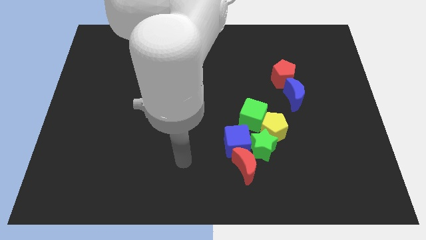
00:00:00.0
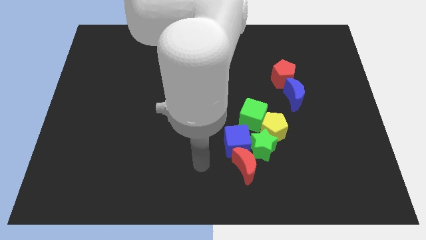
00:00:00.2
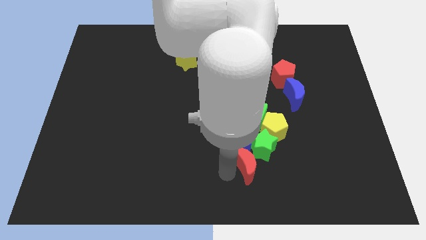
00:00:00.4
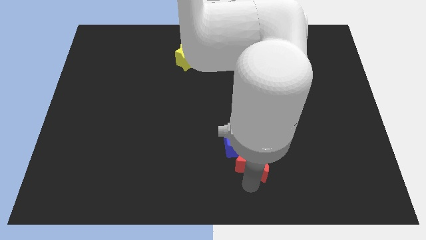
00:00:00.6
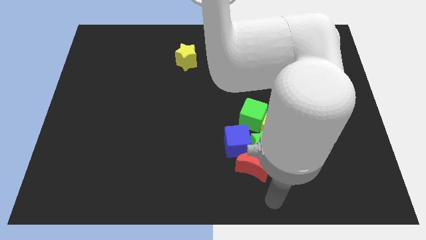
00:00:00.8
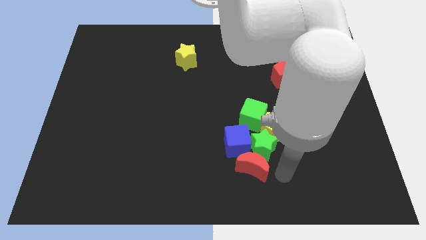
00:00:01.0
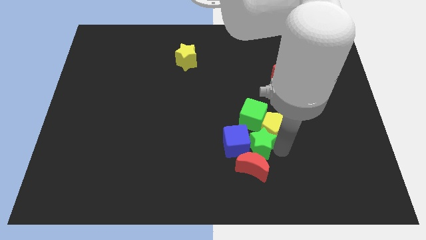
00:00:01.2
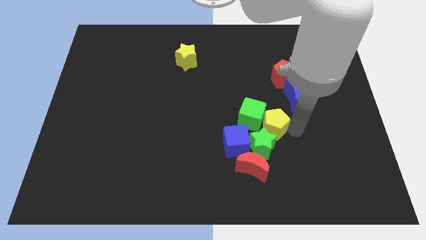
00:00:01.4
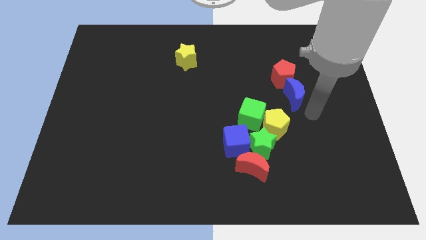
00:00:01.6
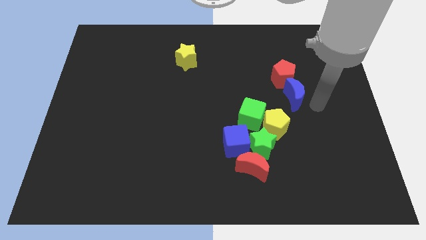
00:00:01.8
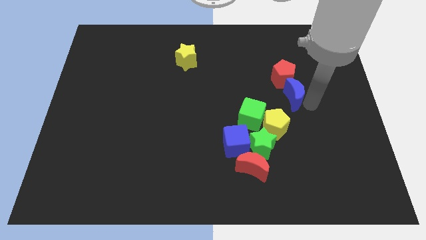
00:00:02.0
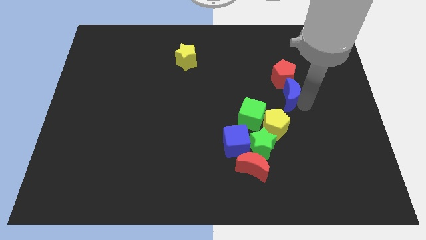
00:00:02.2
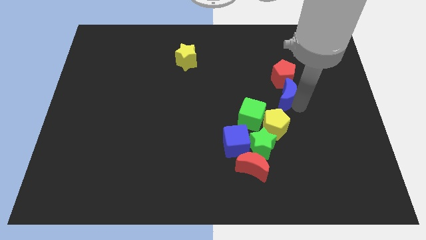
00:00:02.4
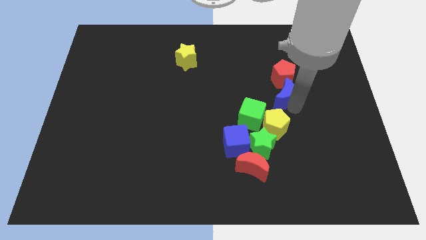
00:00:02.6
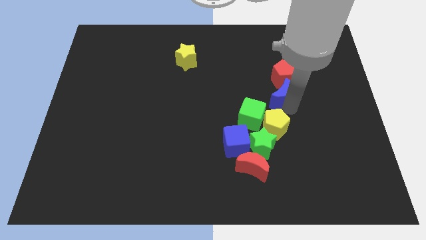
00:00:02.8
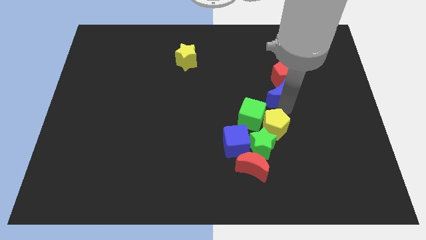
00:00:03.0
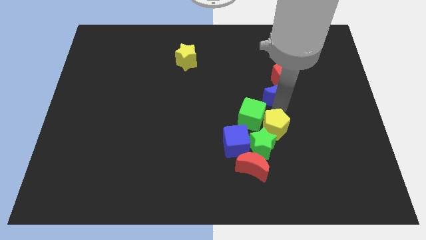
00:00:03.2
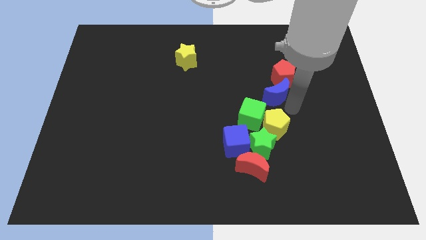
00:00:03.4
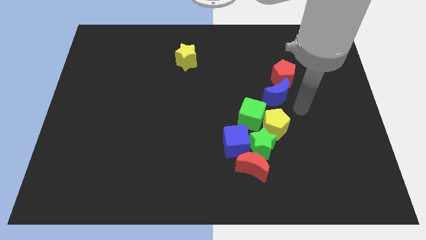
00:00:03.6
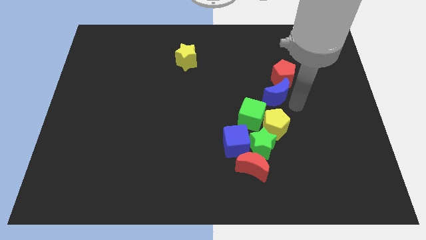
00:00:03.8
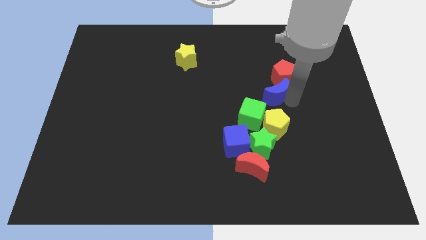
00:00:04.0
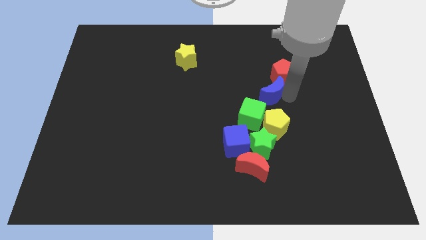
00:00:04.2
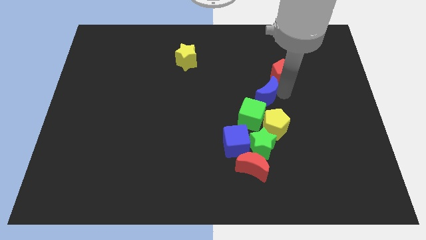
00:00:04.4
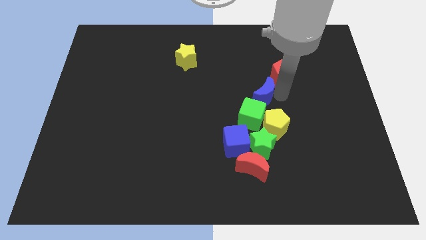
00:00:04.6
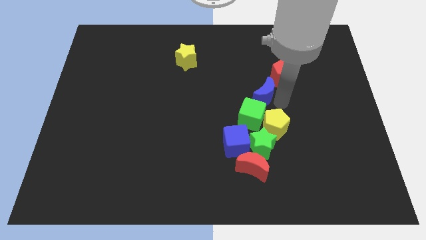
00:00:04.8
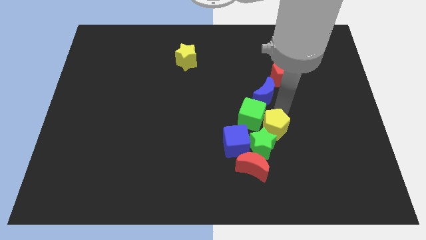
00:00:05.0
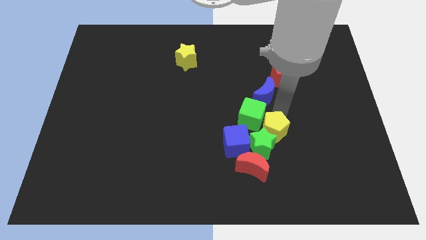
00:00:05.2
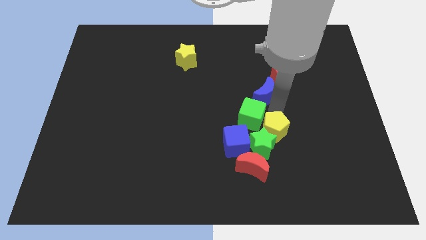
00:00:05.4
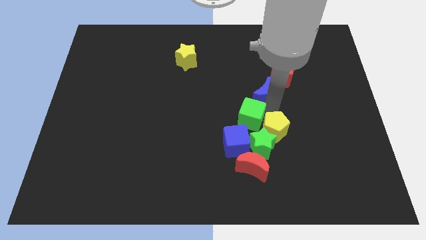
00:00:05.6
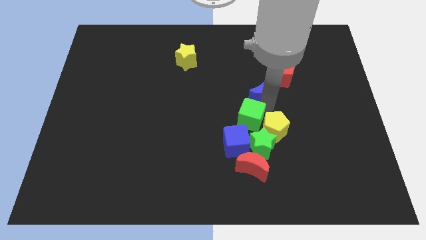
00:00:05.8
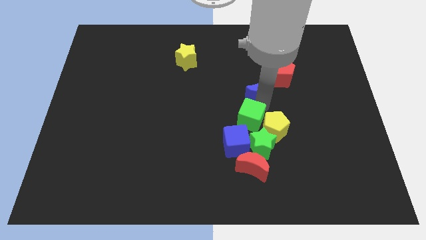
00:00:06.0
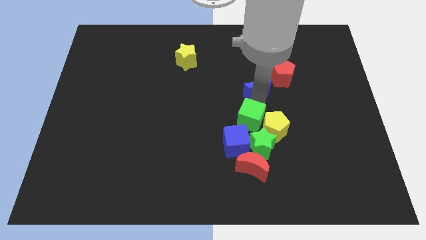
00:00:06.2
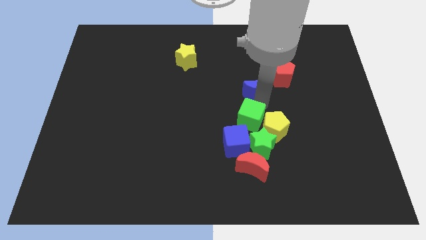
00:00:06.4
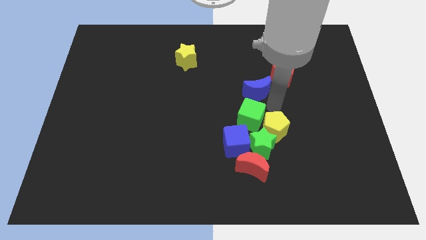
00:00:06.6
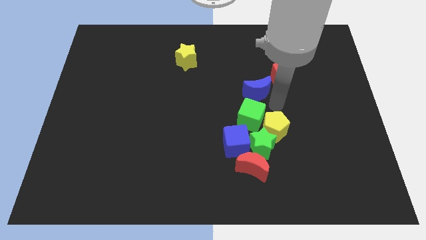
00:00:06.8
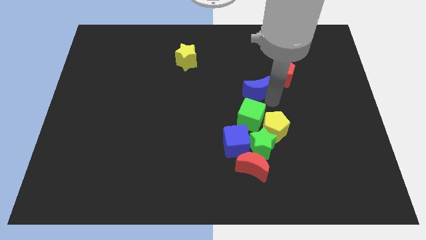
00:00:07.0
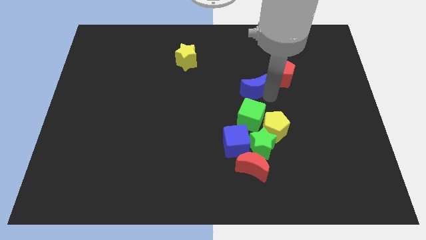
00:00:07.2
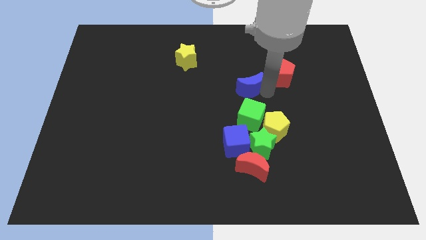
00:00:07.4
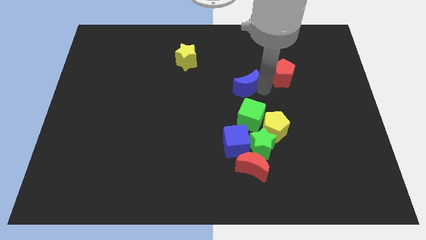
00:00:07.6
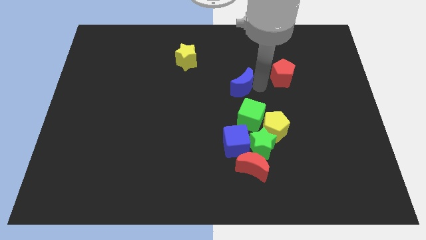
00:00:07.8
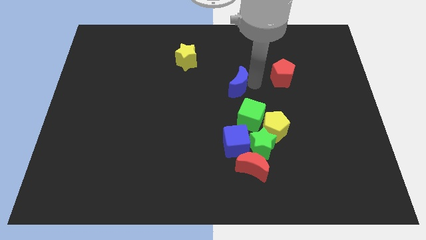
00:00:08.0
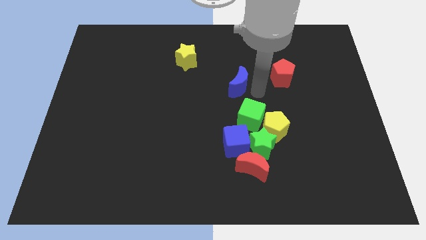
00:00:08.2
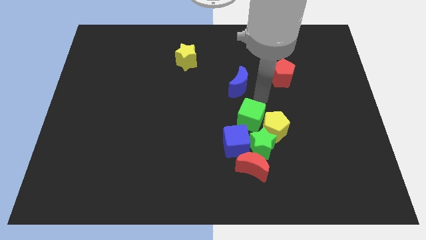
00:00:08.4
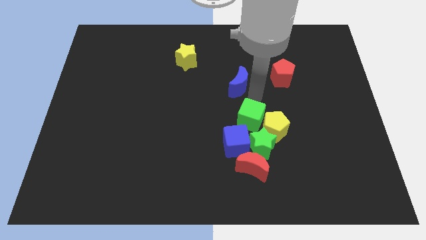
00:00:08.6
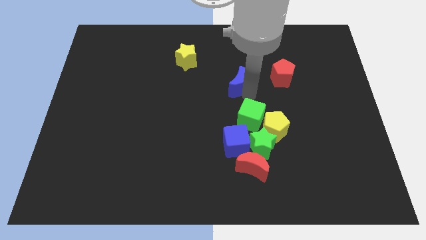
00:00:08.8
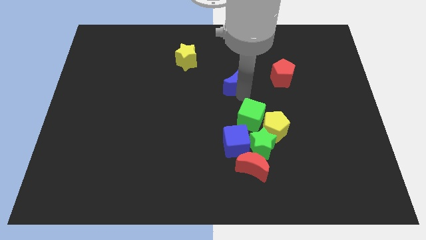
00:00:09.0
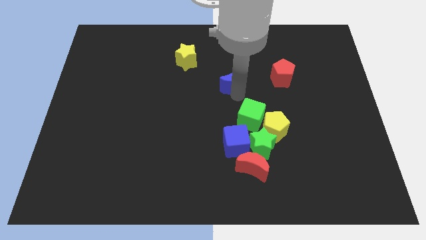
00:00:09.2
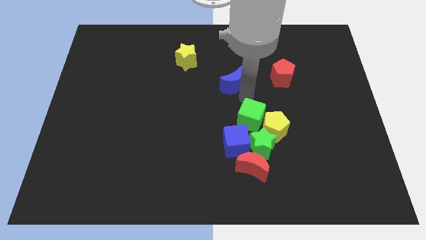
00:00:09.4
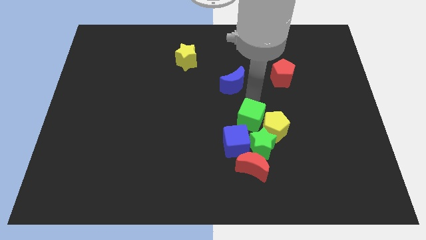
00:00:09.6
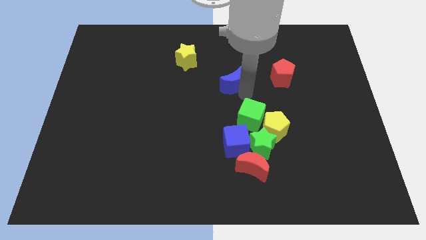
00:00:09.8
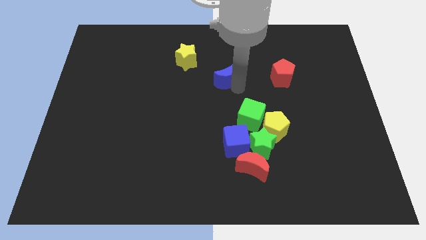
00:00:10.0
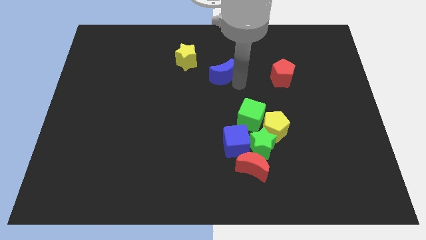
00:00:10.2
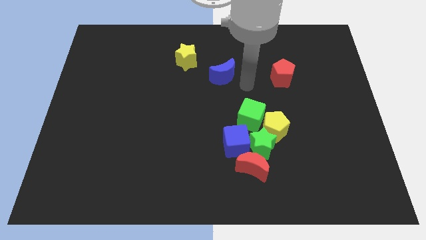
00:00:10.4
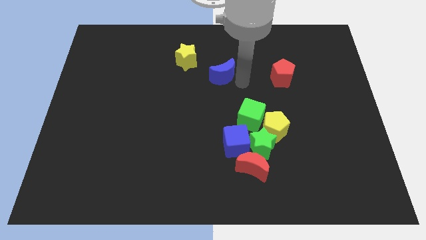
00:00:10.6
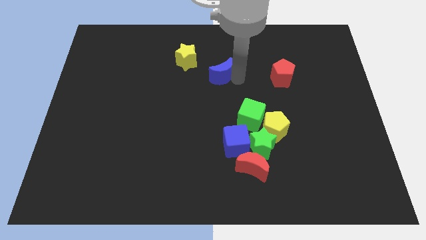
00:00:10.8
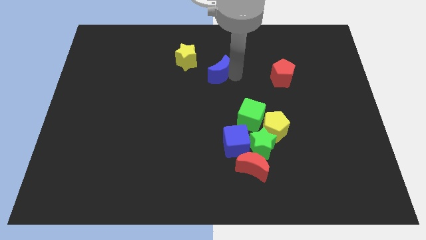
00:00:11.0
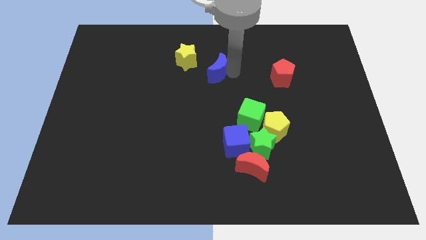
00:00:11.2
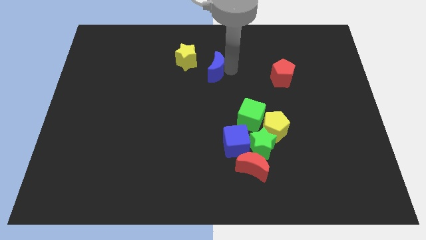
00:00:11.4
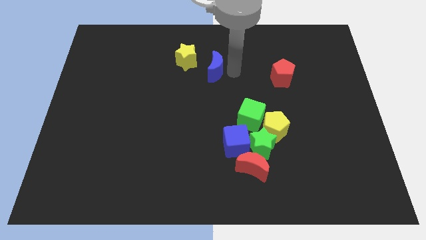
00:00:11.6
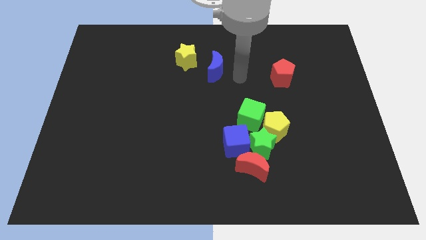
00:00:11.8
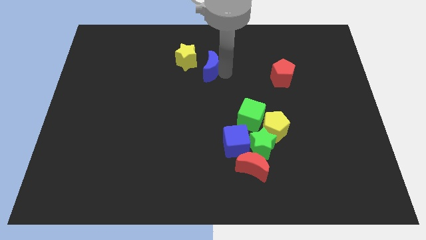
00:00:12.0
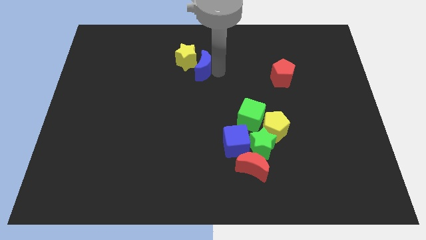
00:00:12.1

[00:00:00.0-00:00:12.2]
push the blue moon towards the yellow star

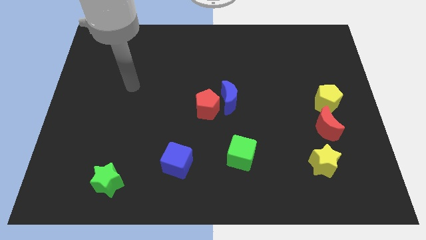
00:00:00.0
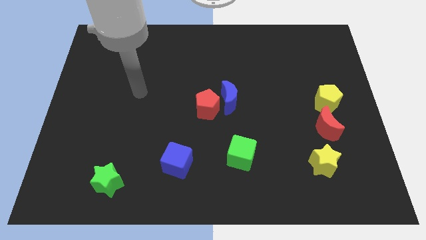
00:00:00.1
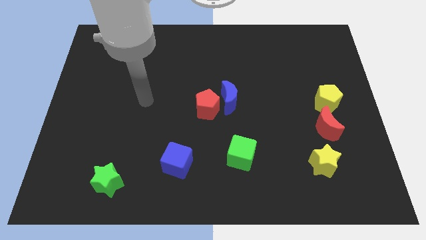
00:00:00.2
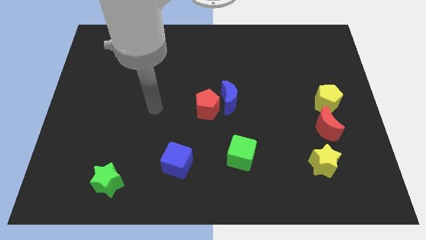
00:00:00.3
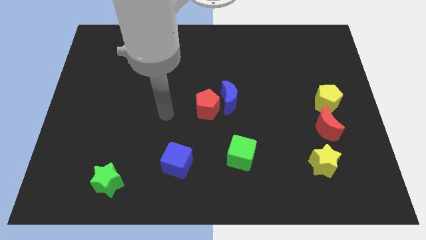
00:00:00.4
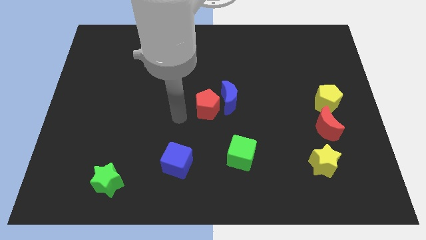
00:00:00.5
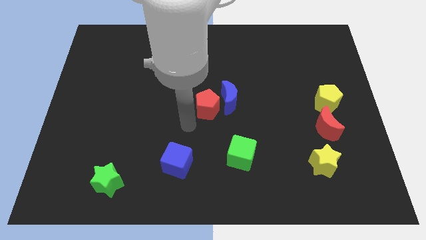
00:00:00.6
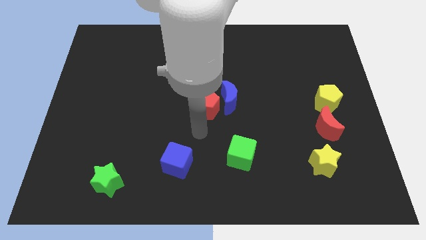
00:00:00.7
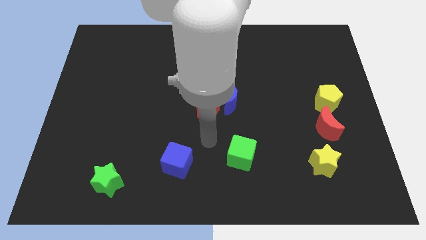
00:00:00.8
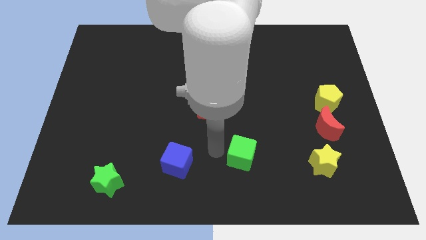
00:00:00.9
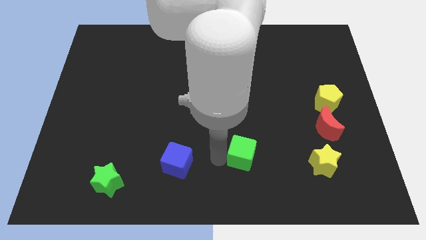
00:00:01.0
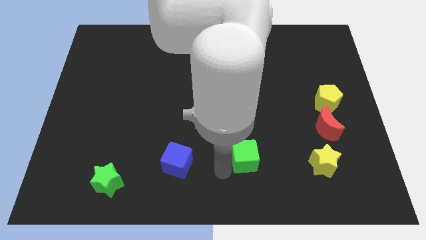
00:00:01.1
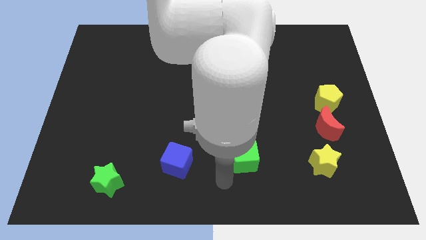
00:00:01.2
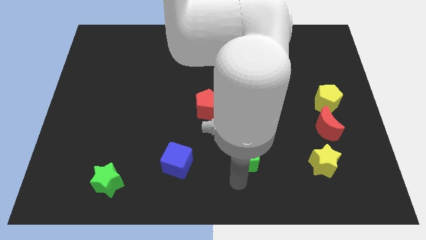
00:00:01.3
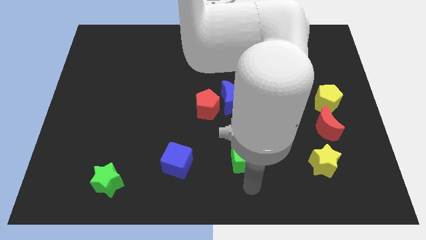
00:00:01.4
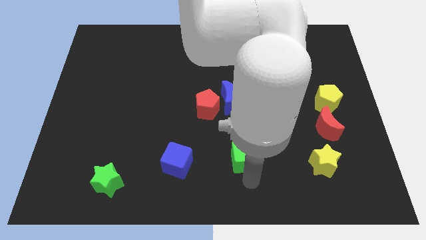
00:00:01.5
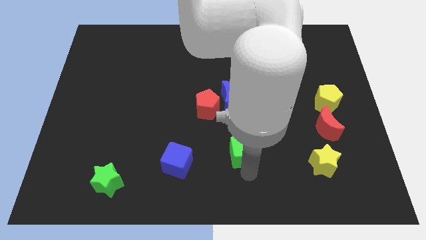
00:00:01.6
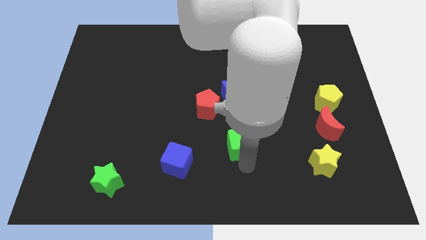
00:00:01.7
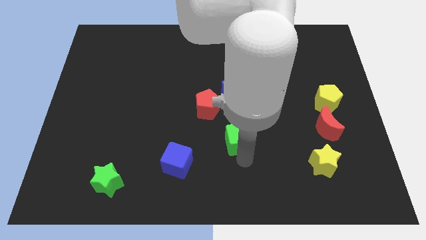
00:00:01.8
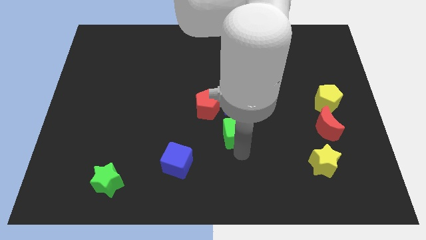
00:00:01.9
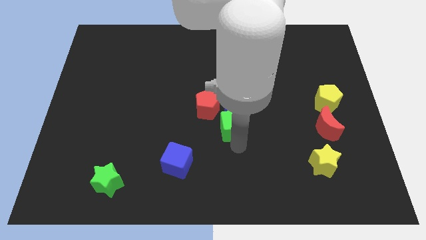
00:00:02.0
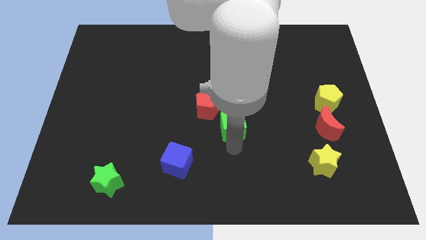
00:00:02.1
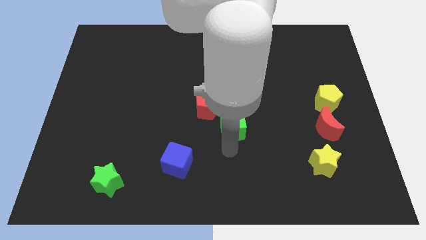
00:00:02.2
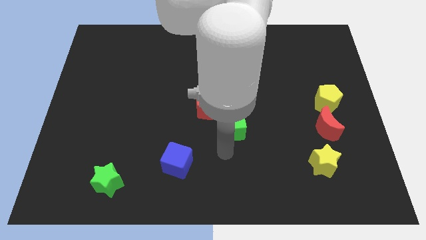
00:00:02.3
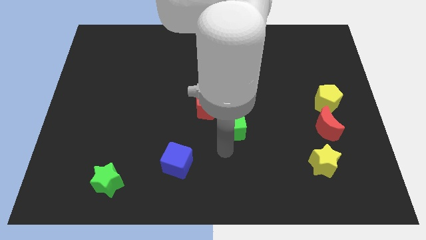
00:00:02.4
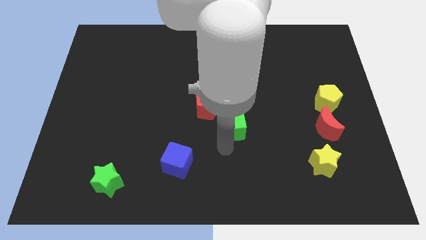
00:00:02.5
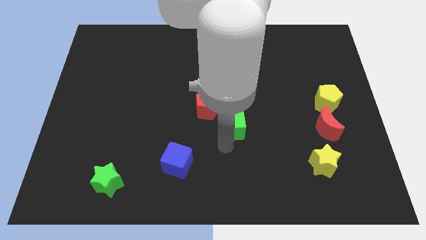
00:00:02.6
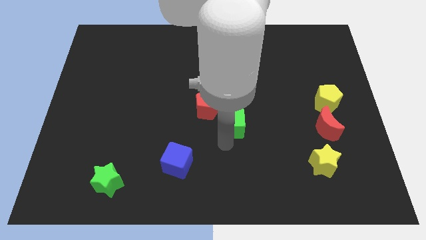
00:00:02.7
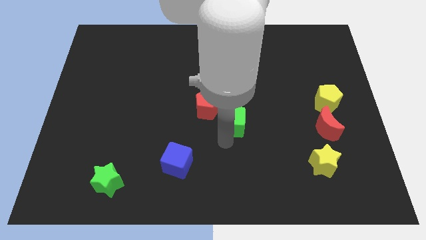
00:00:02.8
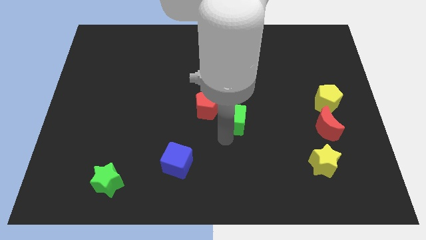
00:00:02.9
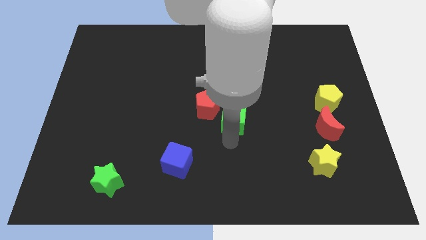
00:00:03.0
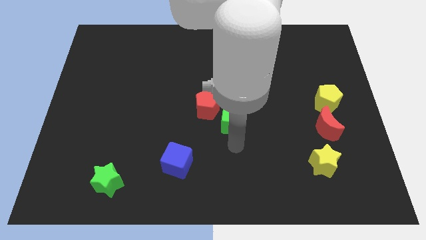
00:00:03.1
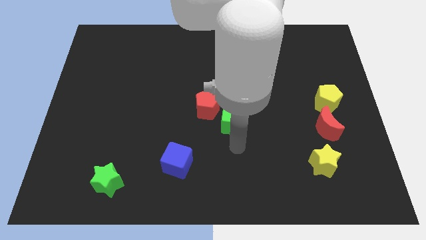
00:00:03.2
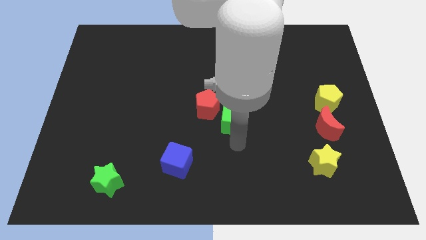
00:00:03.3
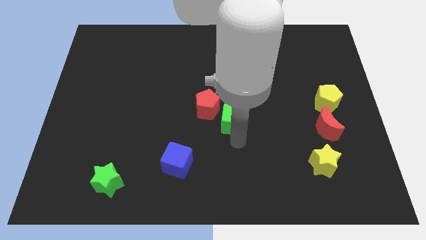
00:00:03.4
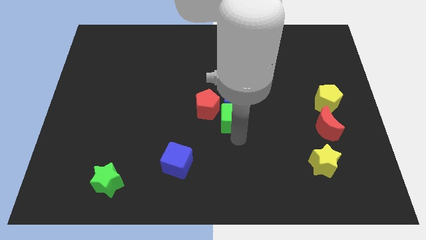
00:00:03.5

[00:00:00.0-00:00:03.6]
slide the green cube to the blue moon
